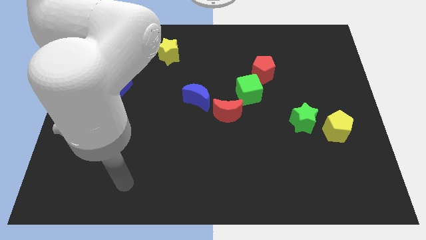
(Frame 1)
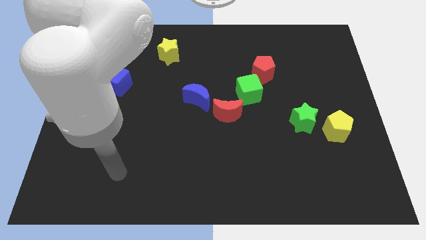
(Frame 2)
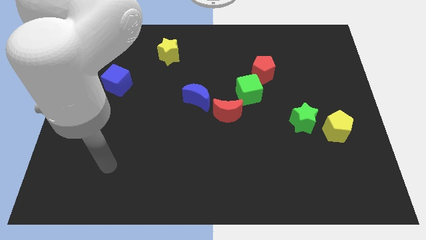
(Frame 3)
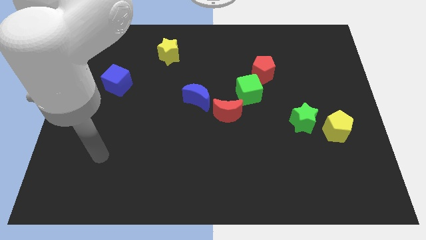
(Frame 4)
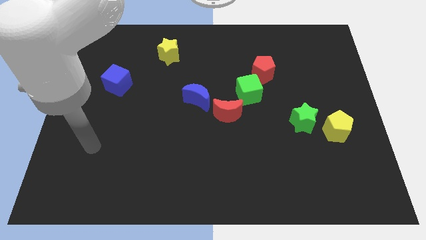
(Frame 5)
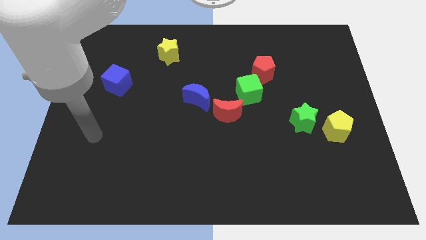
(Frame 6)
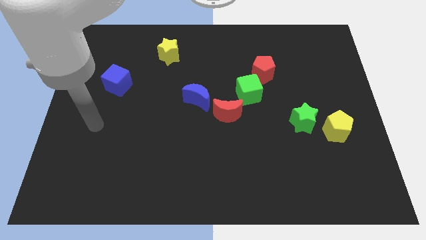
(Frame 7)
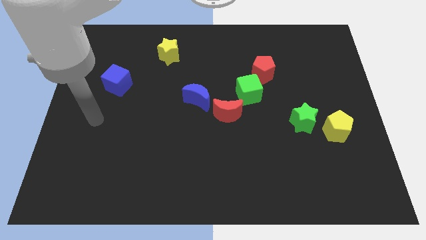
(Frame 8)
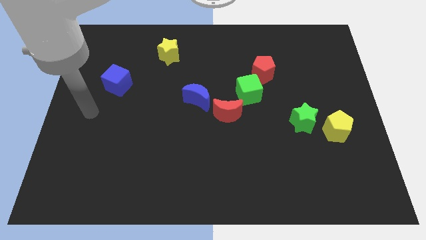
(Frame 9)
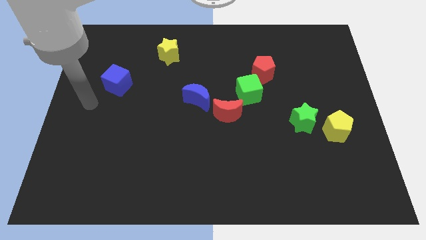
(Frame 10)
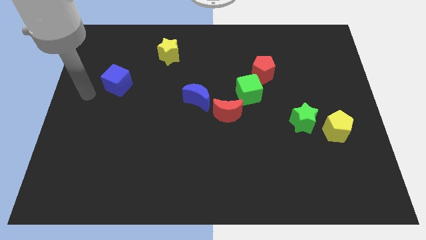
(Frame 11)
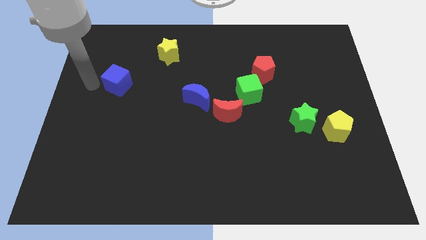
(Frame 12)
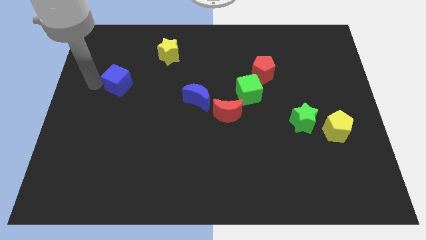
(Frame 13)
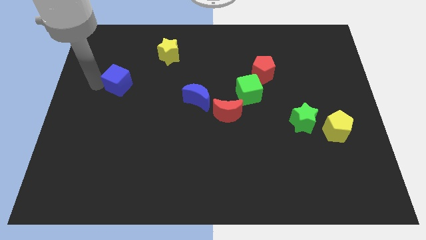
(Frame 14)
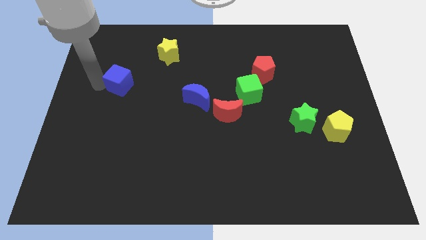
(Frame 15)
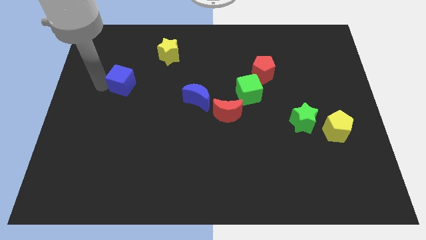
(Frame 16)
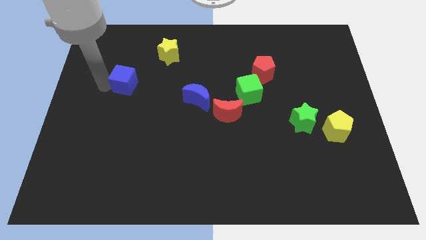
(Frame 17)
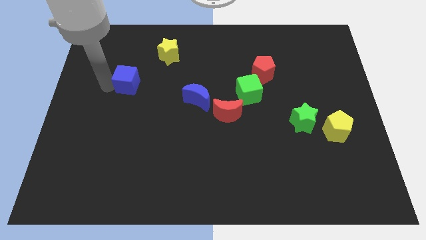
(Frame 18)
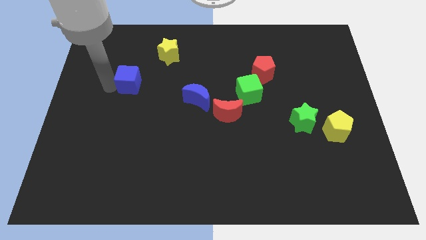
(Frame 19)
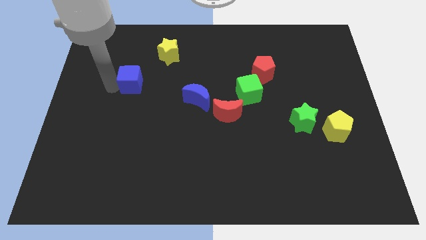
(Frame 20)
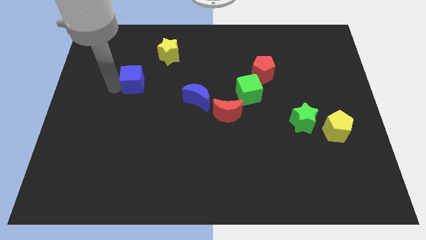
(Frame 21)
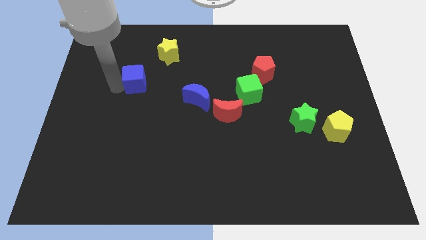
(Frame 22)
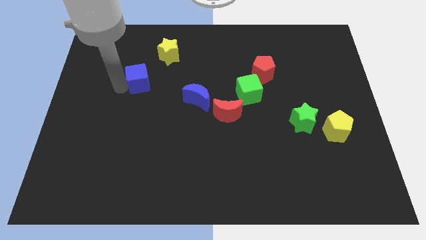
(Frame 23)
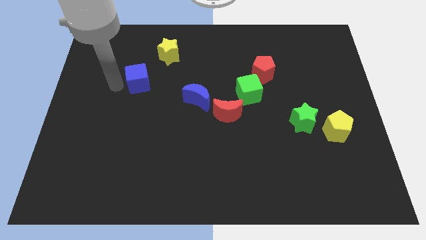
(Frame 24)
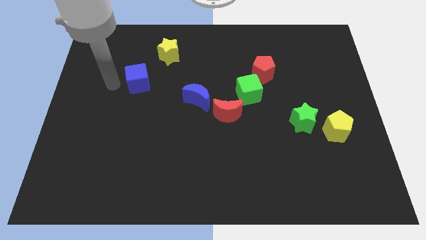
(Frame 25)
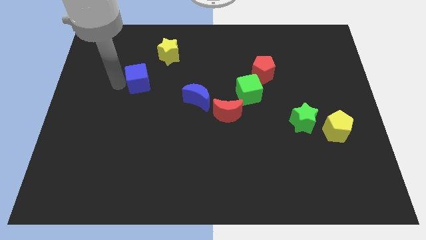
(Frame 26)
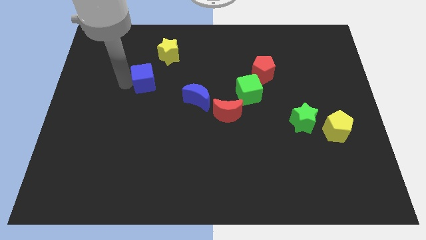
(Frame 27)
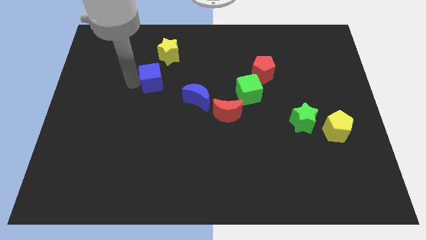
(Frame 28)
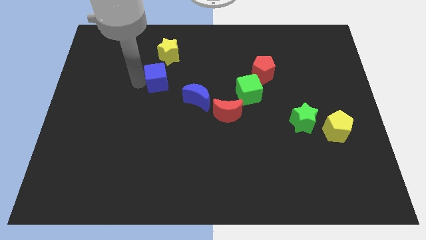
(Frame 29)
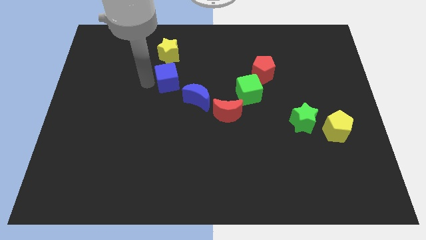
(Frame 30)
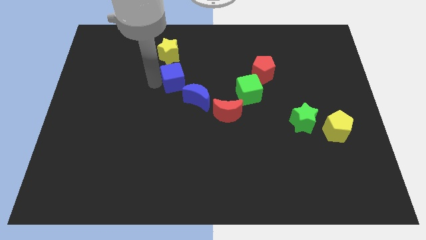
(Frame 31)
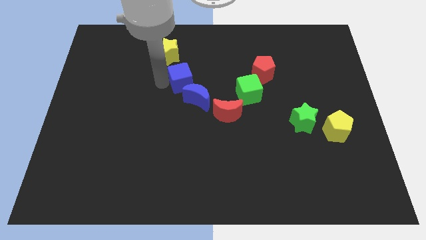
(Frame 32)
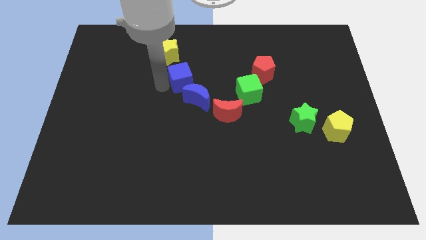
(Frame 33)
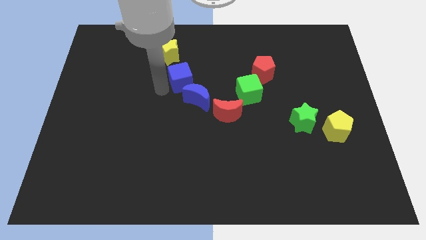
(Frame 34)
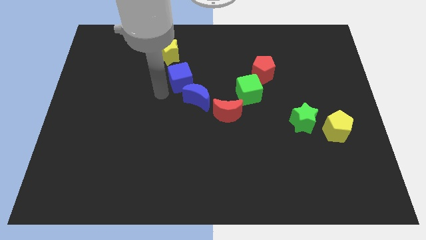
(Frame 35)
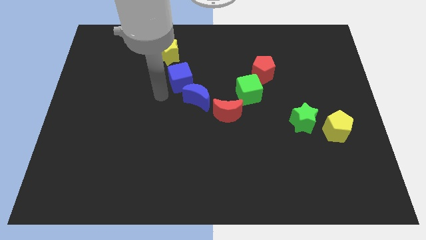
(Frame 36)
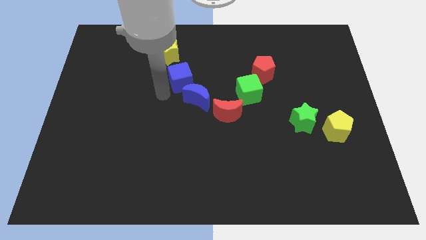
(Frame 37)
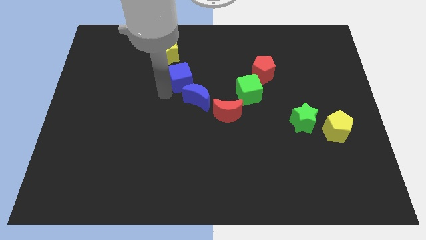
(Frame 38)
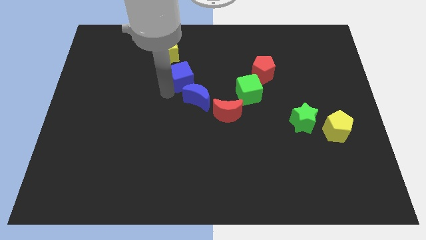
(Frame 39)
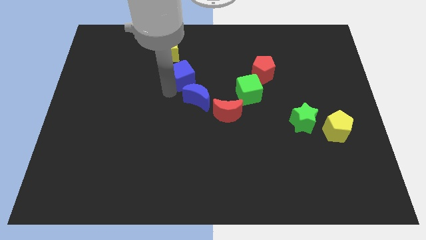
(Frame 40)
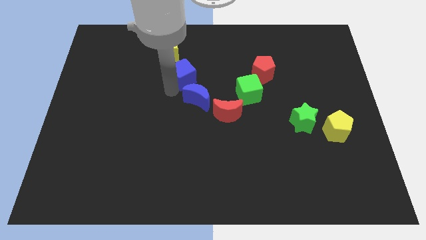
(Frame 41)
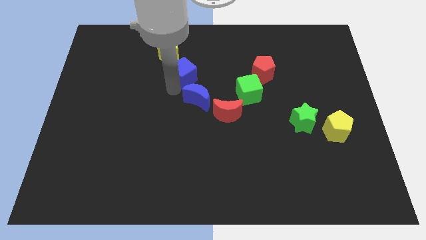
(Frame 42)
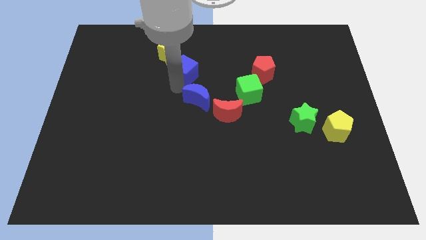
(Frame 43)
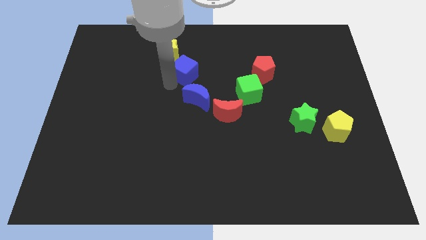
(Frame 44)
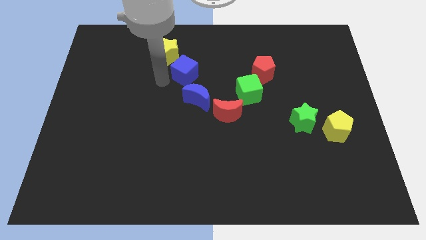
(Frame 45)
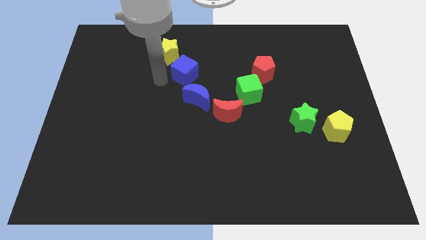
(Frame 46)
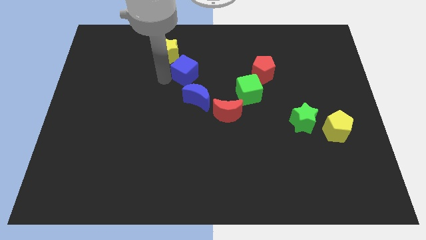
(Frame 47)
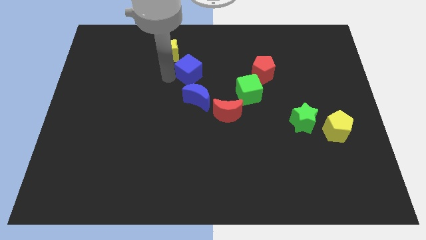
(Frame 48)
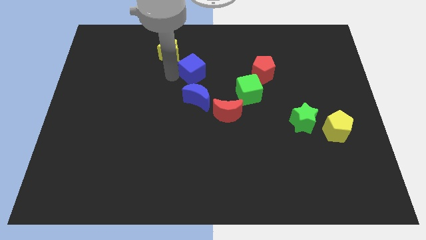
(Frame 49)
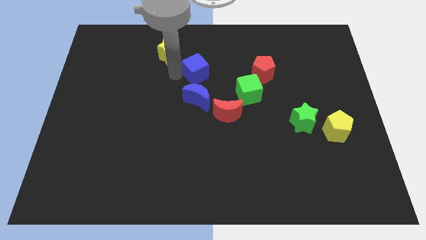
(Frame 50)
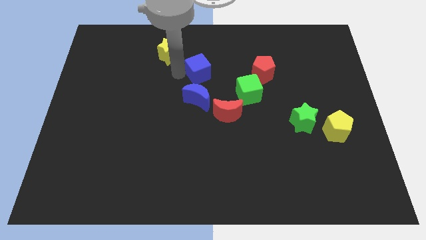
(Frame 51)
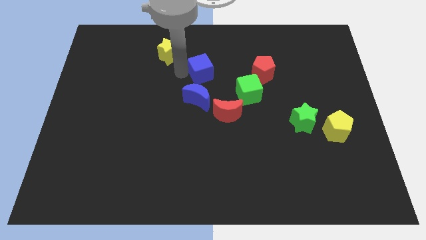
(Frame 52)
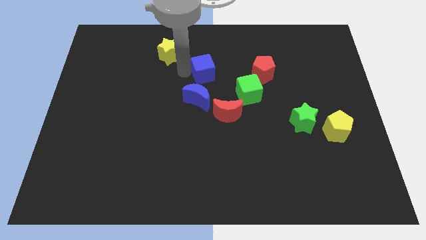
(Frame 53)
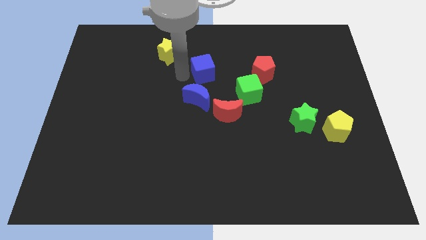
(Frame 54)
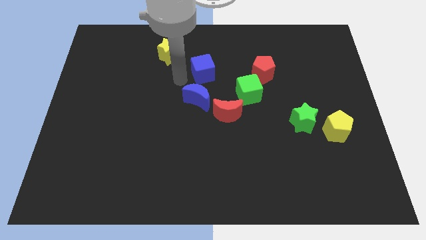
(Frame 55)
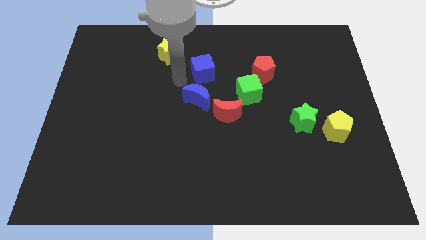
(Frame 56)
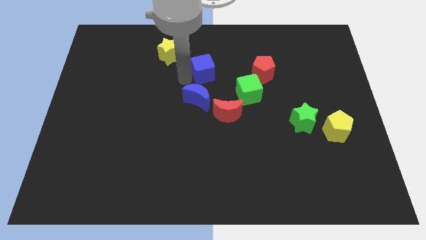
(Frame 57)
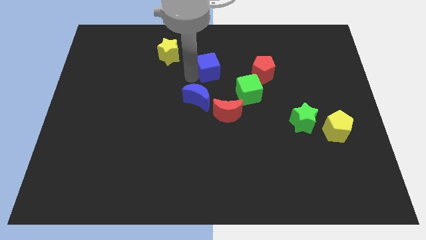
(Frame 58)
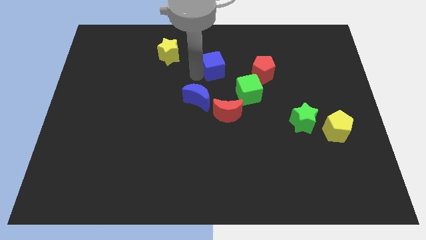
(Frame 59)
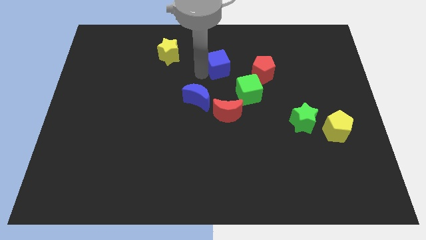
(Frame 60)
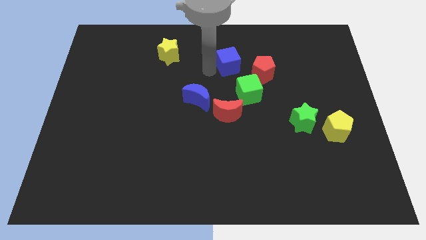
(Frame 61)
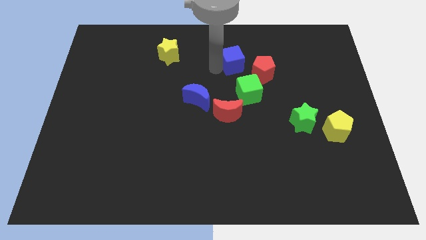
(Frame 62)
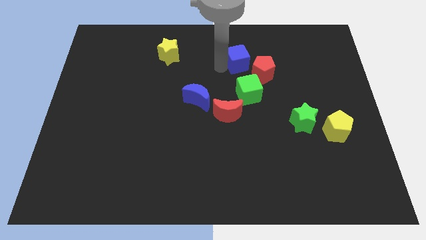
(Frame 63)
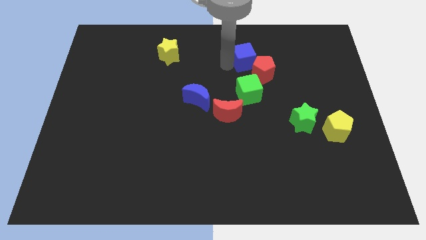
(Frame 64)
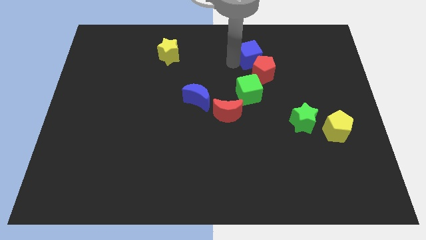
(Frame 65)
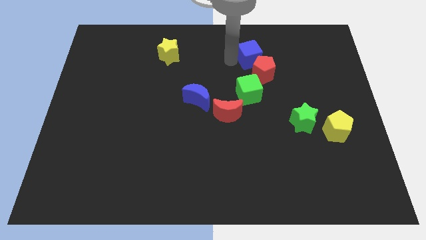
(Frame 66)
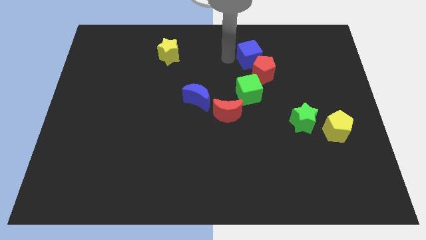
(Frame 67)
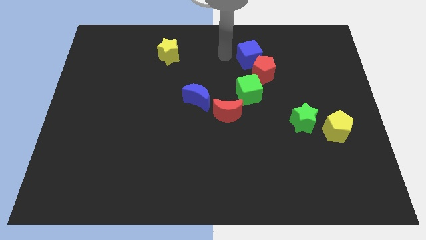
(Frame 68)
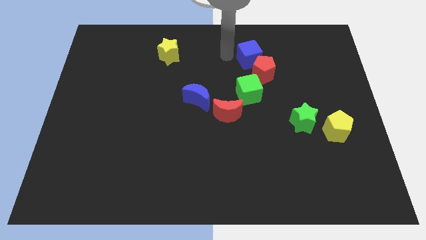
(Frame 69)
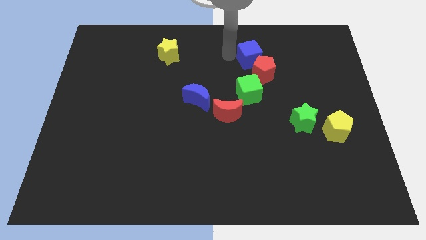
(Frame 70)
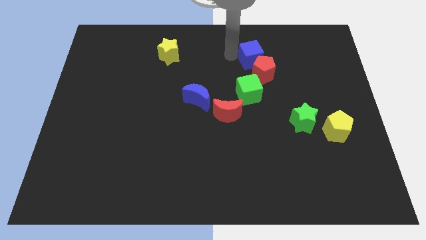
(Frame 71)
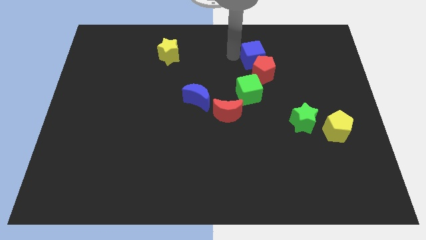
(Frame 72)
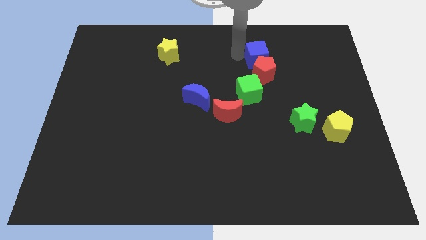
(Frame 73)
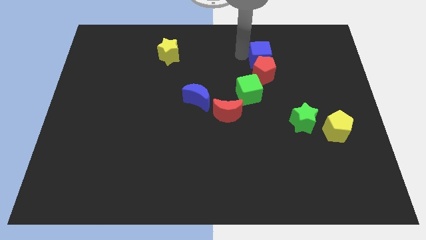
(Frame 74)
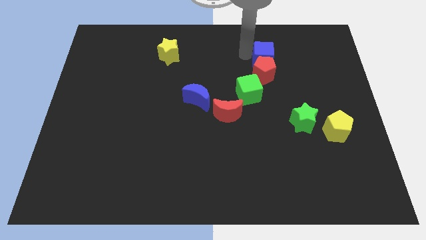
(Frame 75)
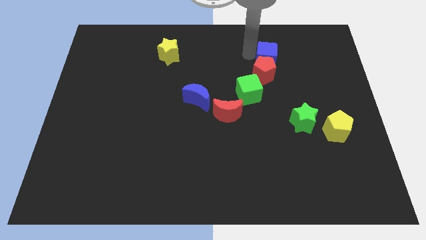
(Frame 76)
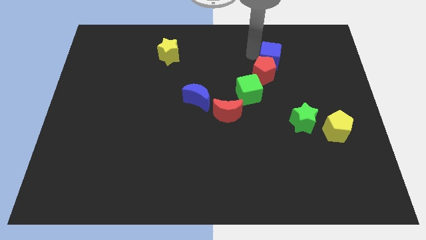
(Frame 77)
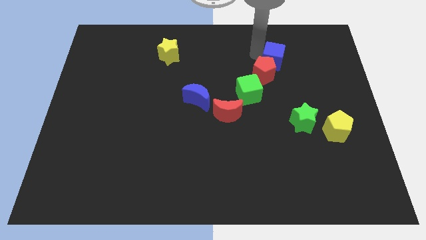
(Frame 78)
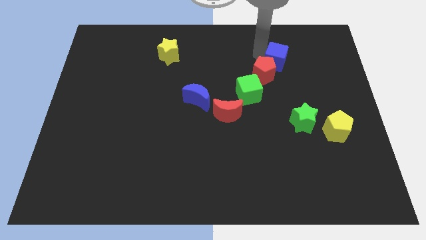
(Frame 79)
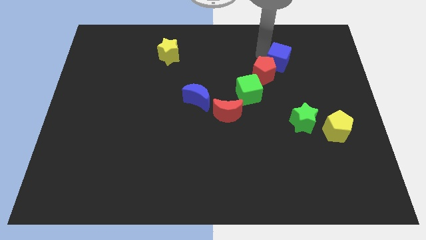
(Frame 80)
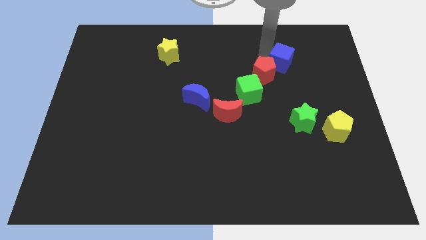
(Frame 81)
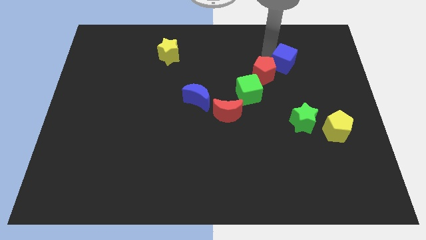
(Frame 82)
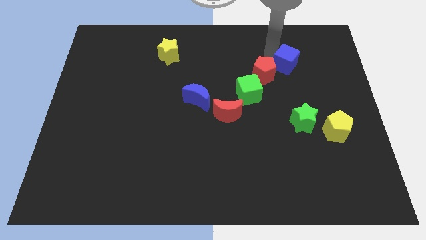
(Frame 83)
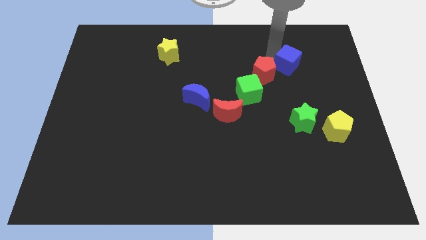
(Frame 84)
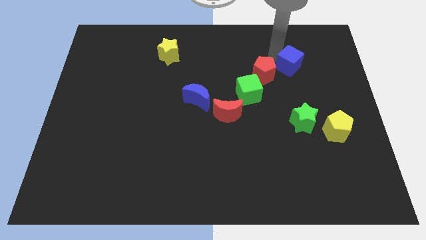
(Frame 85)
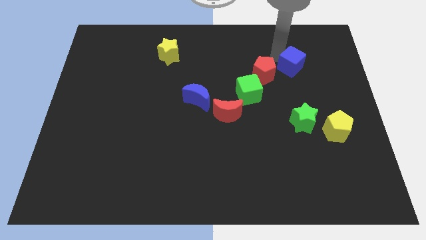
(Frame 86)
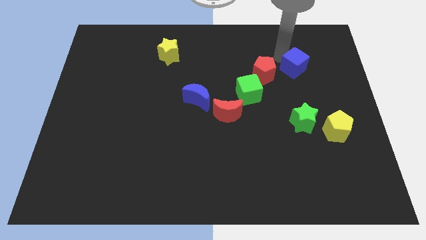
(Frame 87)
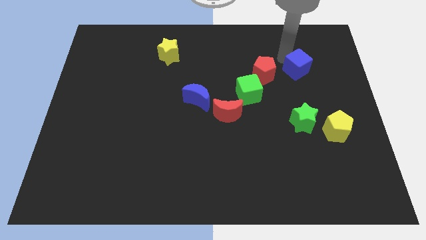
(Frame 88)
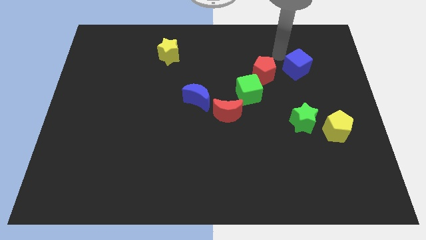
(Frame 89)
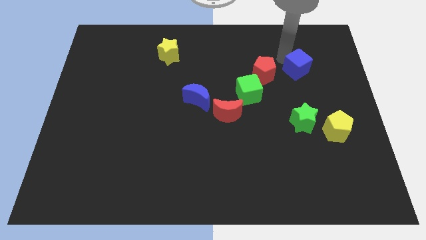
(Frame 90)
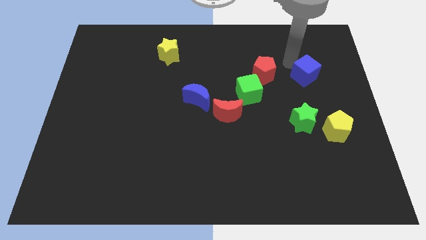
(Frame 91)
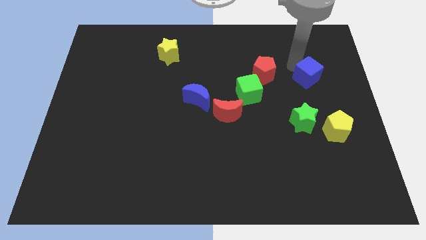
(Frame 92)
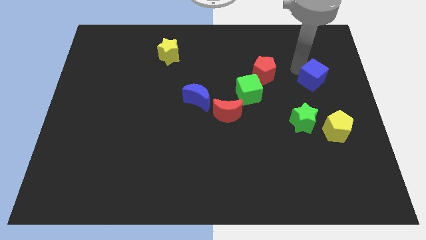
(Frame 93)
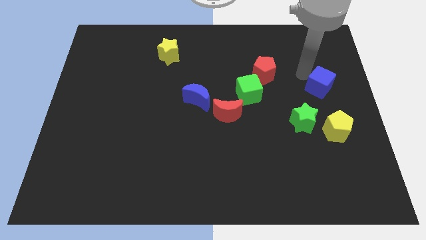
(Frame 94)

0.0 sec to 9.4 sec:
slide the blue cube to the right side
